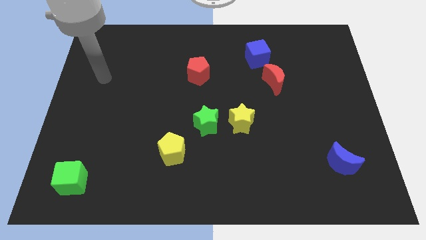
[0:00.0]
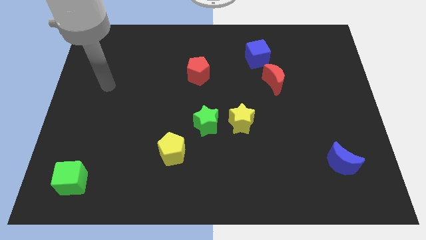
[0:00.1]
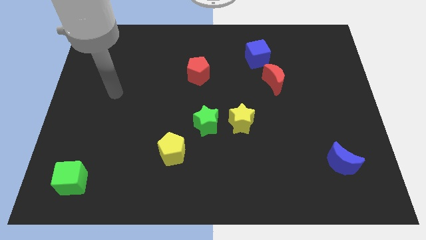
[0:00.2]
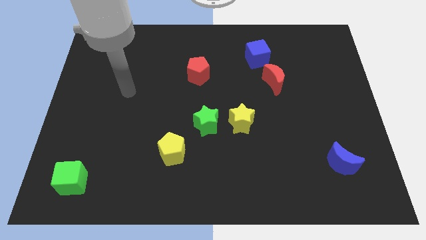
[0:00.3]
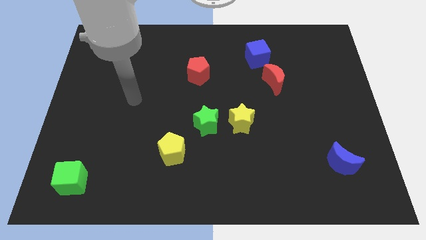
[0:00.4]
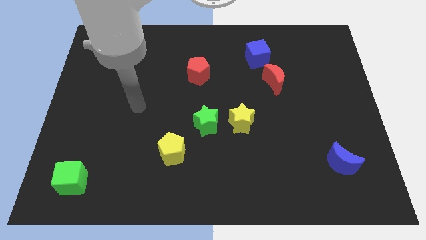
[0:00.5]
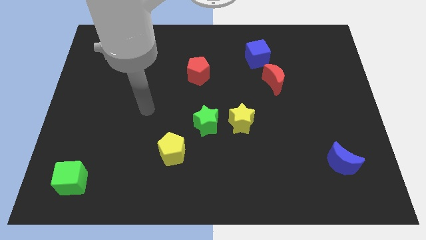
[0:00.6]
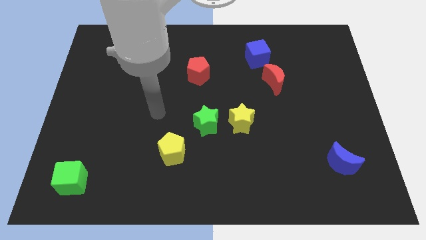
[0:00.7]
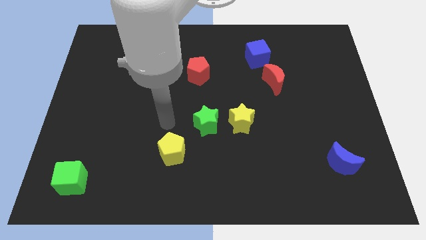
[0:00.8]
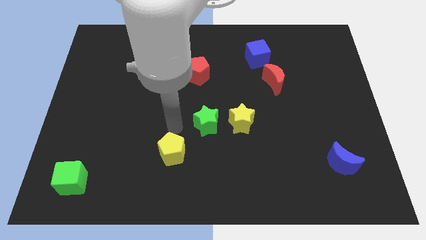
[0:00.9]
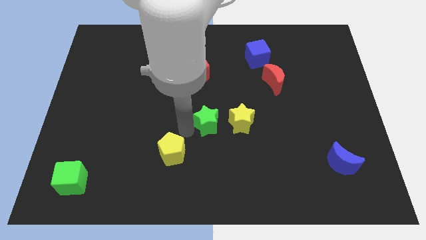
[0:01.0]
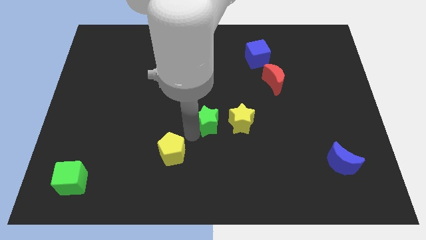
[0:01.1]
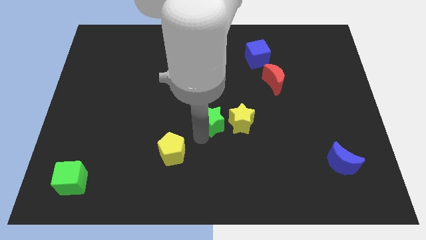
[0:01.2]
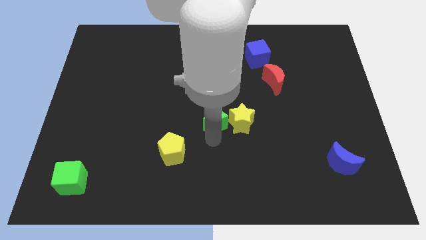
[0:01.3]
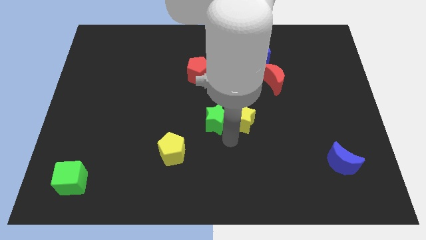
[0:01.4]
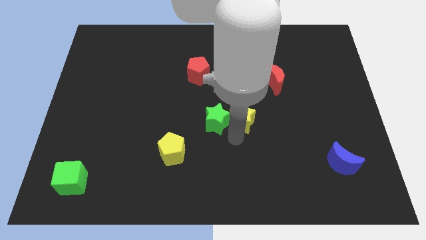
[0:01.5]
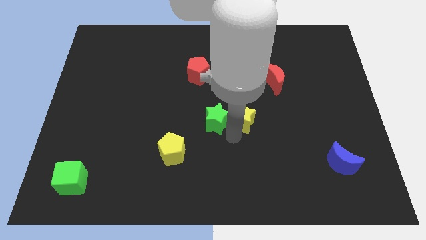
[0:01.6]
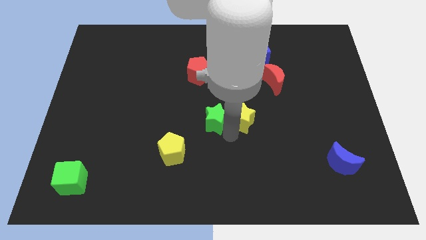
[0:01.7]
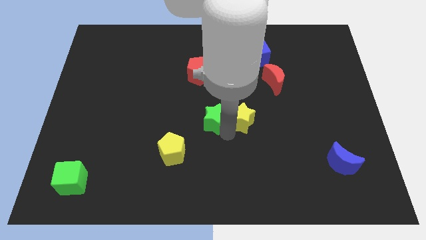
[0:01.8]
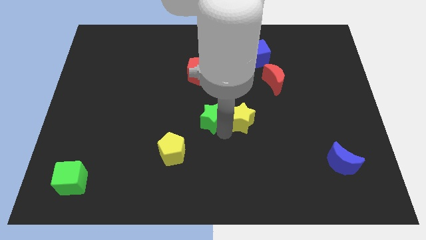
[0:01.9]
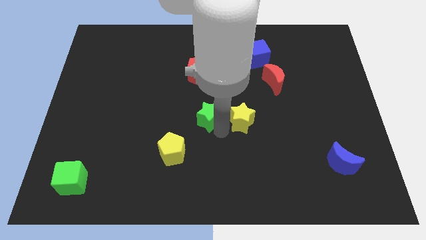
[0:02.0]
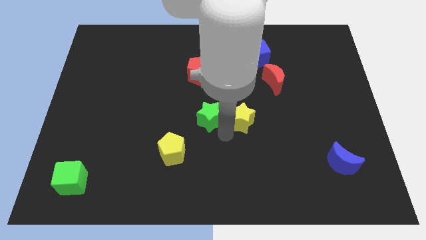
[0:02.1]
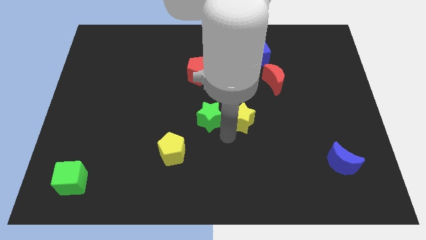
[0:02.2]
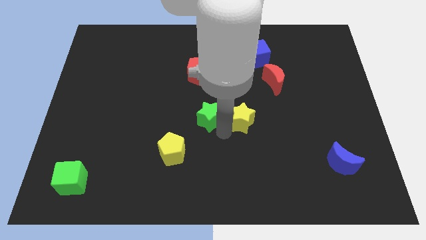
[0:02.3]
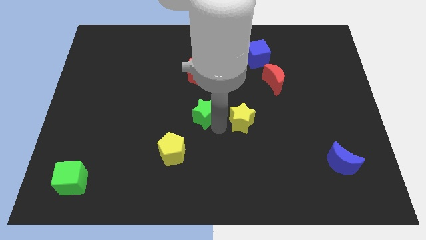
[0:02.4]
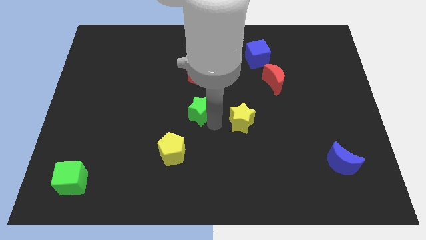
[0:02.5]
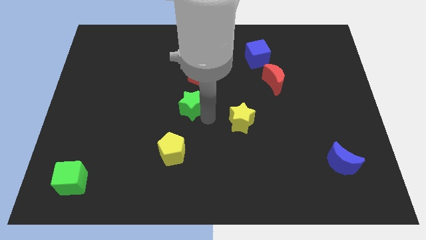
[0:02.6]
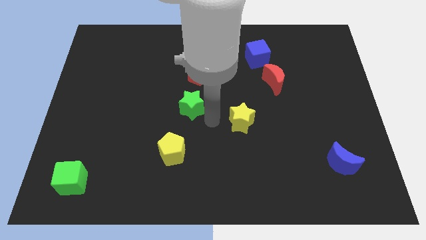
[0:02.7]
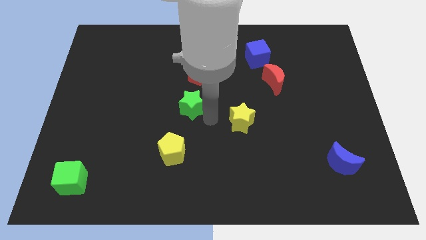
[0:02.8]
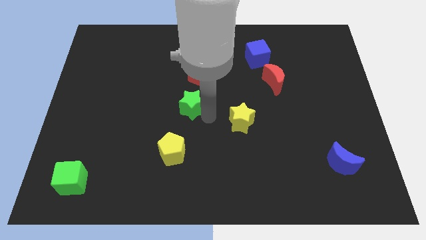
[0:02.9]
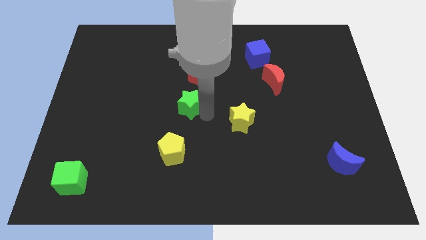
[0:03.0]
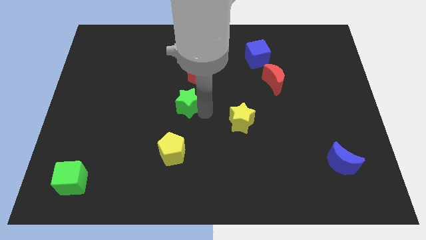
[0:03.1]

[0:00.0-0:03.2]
move the green star up and then to the left a bit

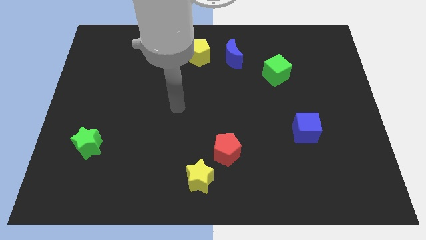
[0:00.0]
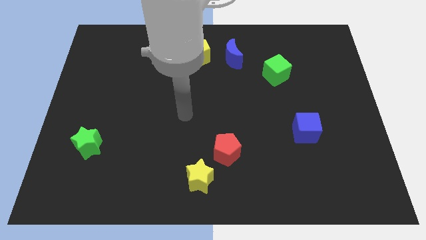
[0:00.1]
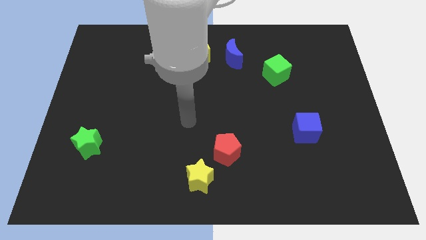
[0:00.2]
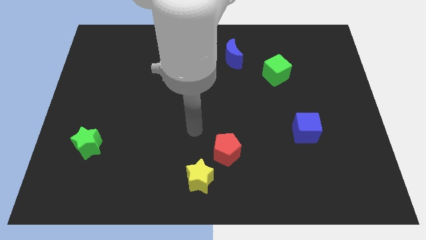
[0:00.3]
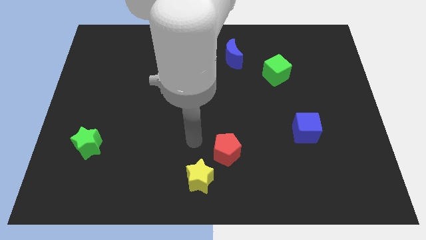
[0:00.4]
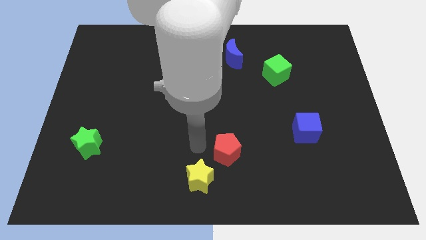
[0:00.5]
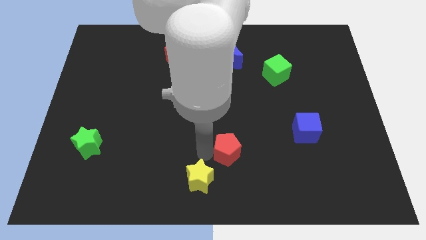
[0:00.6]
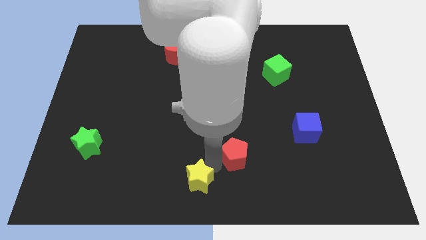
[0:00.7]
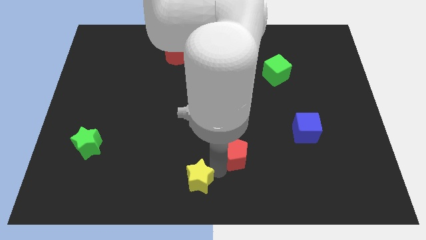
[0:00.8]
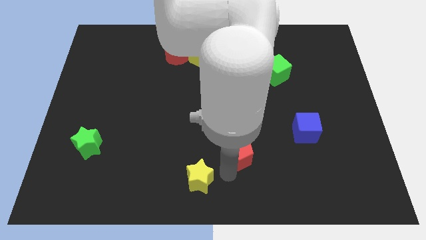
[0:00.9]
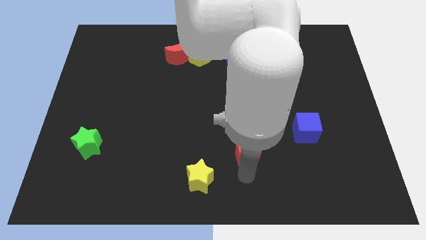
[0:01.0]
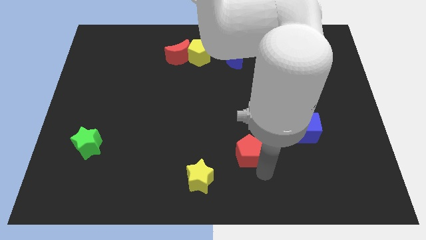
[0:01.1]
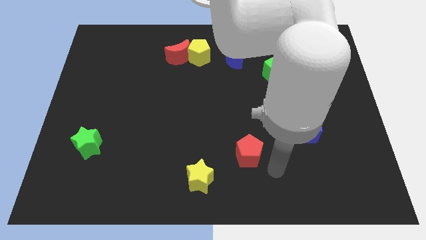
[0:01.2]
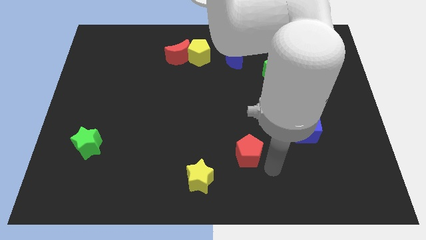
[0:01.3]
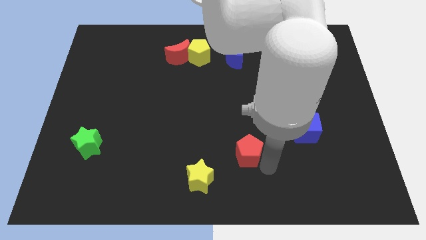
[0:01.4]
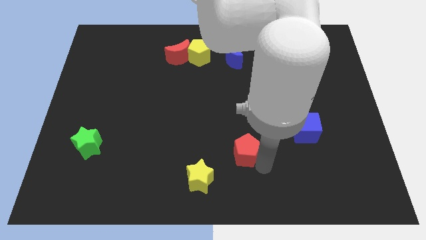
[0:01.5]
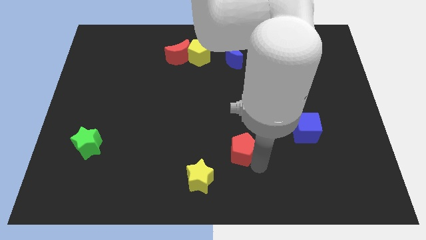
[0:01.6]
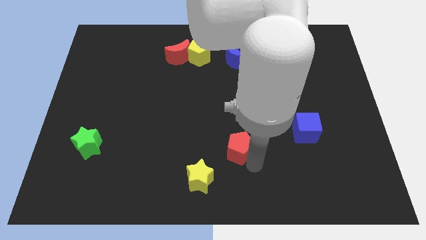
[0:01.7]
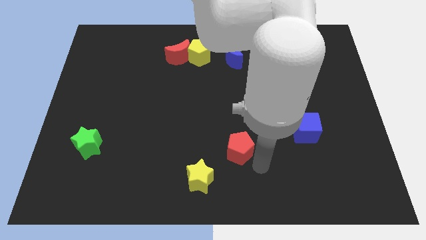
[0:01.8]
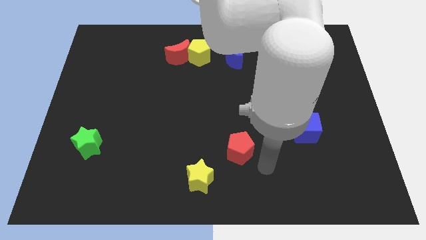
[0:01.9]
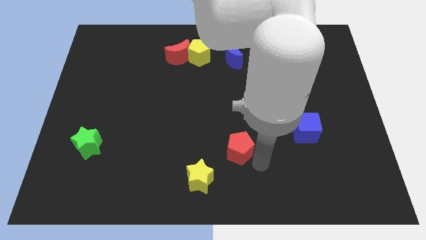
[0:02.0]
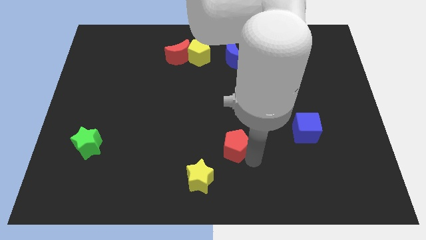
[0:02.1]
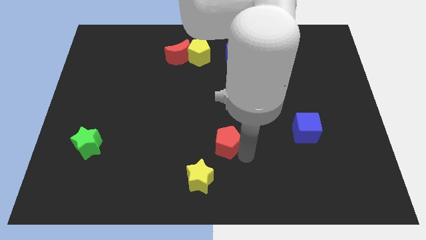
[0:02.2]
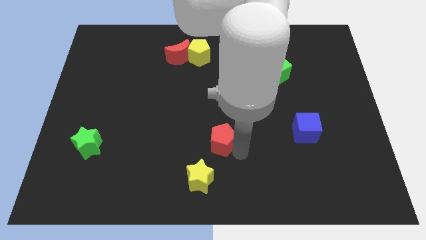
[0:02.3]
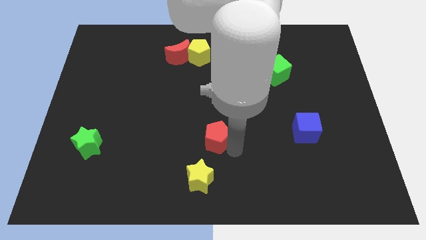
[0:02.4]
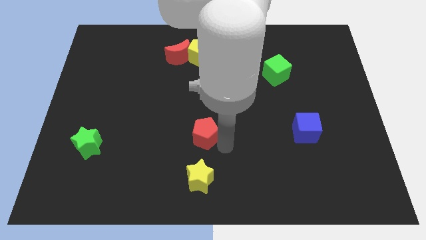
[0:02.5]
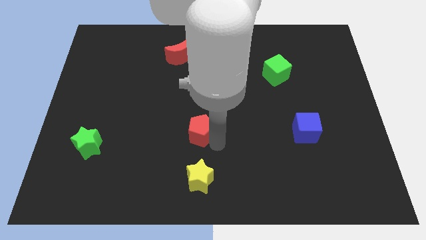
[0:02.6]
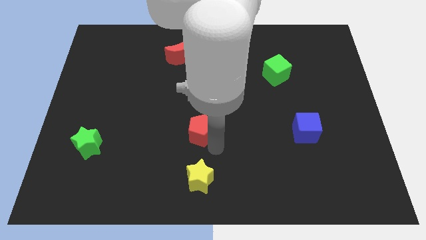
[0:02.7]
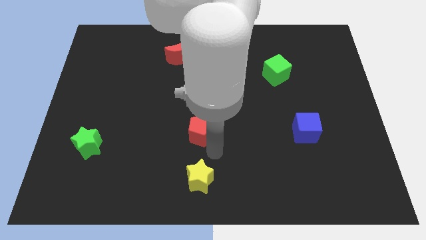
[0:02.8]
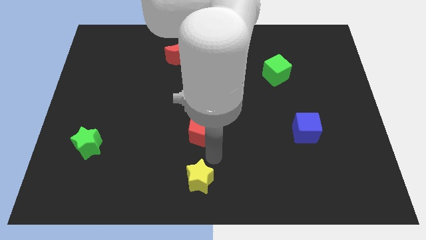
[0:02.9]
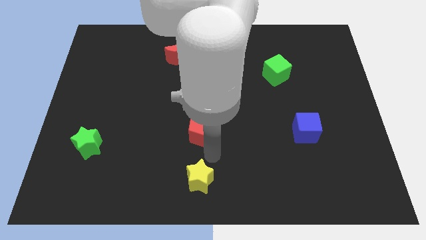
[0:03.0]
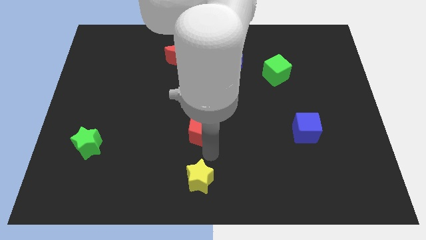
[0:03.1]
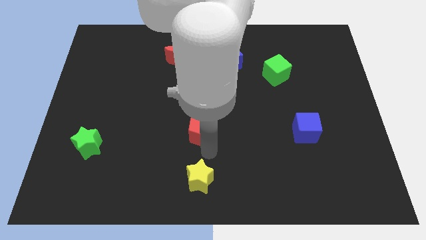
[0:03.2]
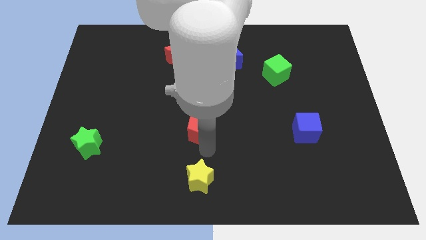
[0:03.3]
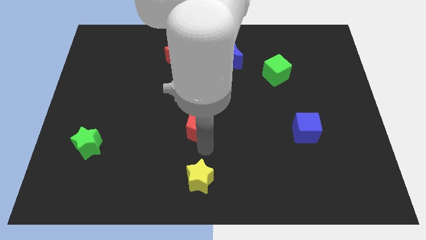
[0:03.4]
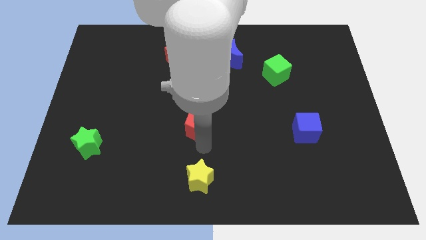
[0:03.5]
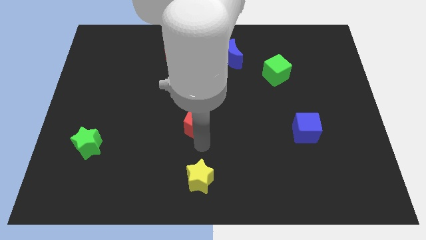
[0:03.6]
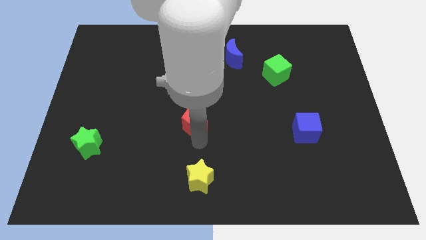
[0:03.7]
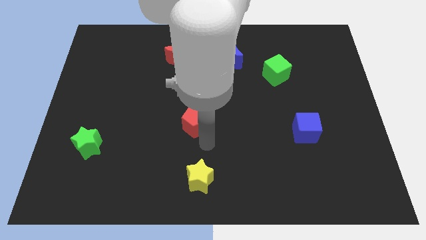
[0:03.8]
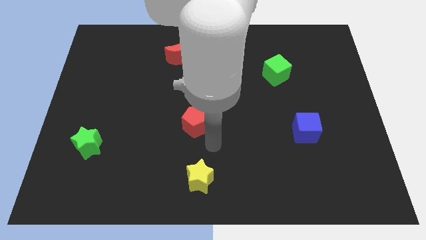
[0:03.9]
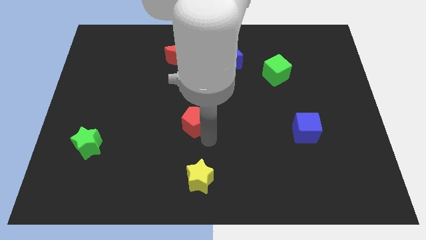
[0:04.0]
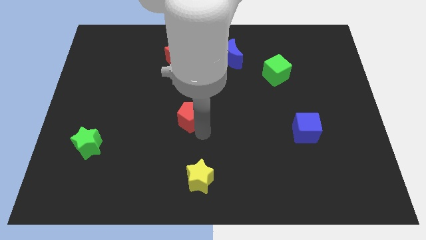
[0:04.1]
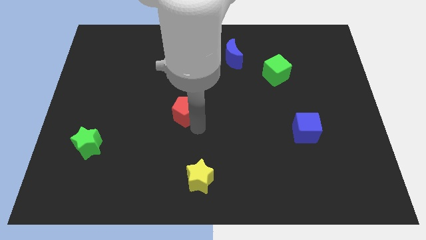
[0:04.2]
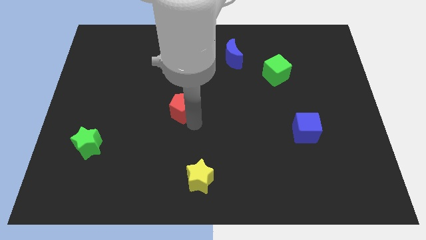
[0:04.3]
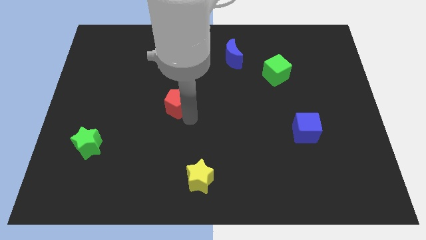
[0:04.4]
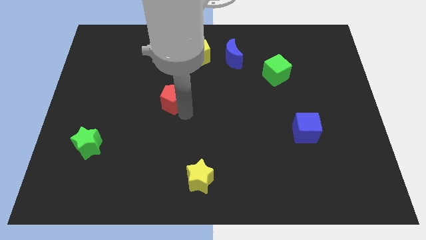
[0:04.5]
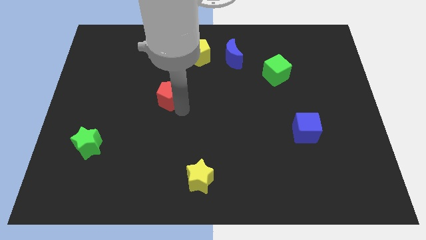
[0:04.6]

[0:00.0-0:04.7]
slide the red pentagon upwards and then left

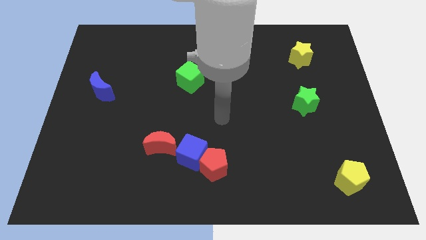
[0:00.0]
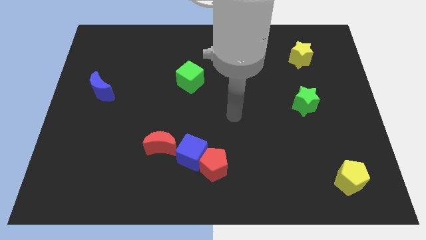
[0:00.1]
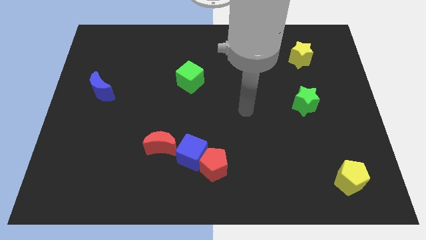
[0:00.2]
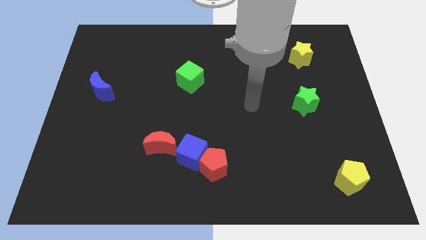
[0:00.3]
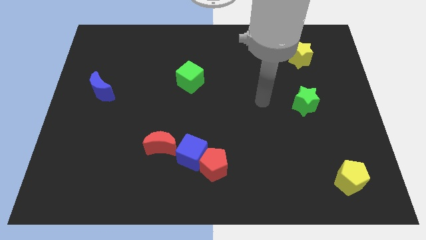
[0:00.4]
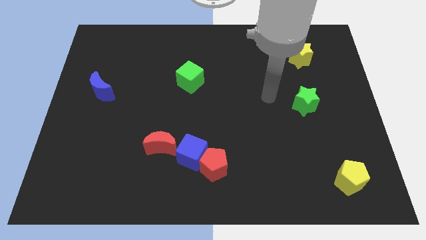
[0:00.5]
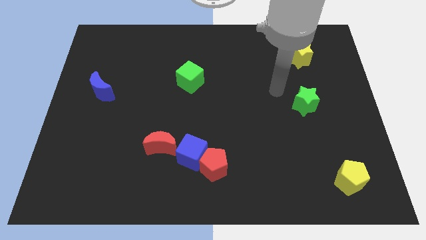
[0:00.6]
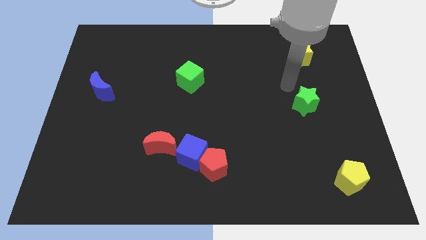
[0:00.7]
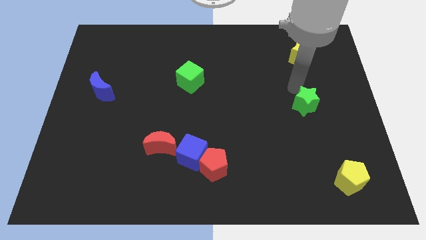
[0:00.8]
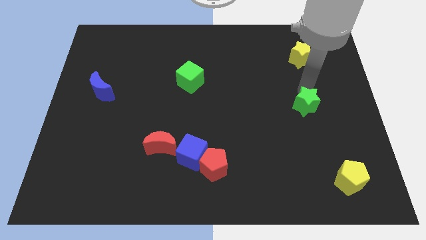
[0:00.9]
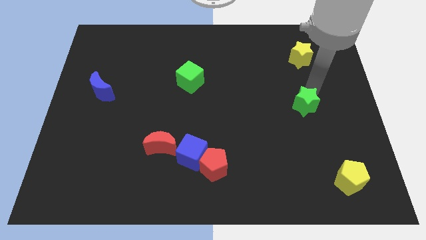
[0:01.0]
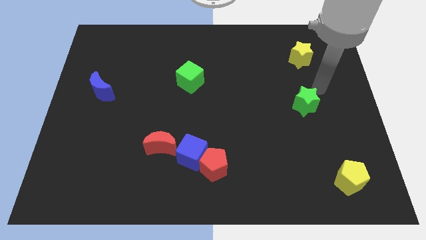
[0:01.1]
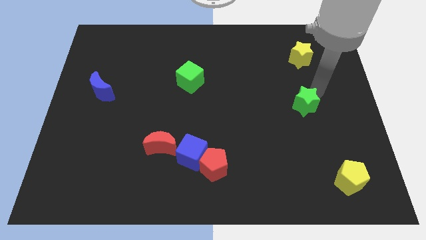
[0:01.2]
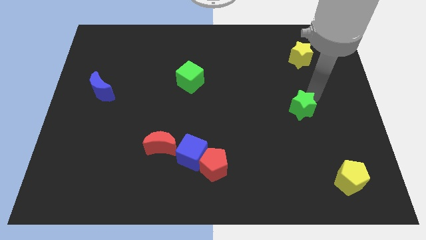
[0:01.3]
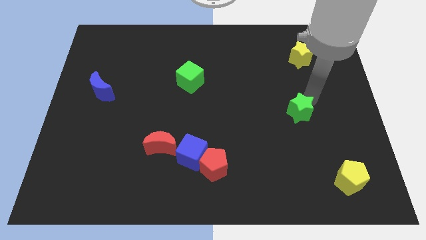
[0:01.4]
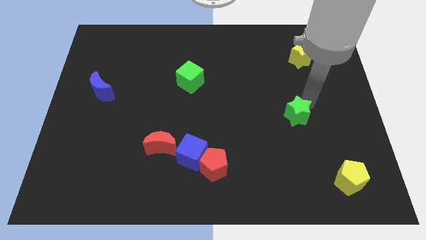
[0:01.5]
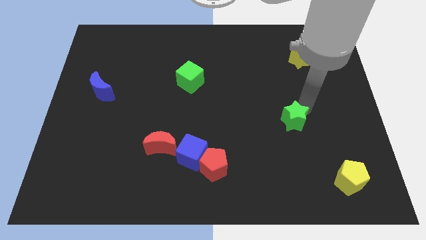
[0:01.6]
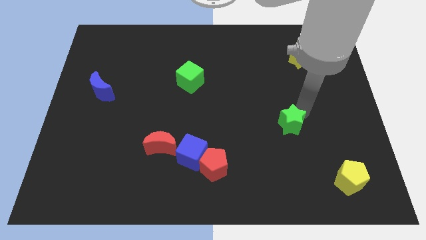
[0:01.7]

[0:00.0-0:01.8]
move the green star down and to the left a little bit
